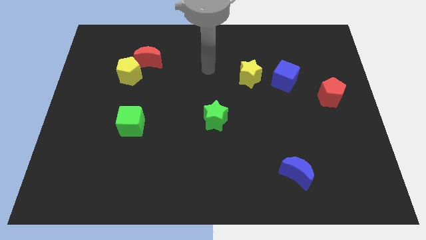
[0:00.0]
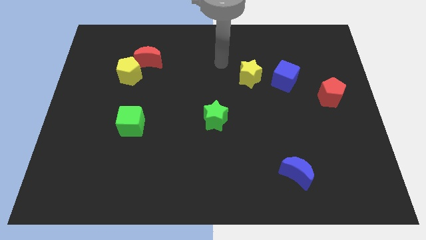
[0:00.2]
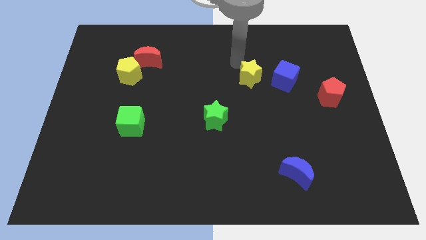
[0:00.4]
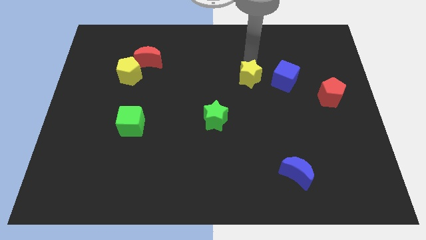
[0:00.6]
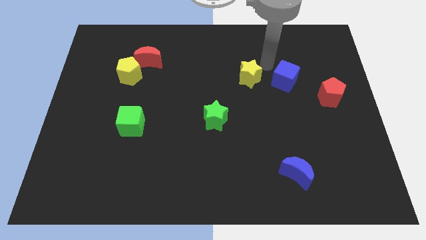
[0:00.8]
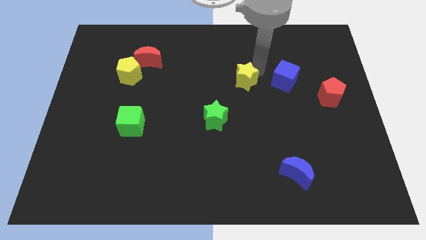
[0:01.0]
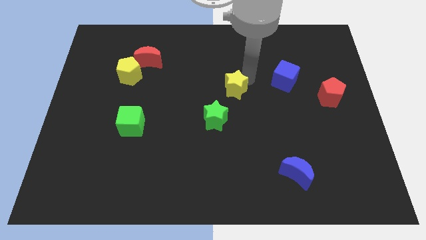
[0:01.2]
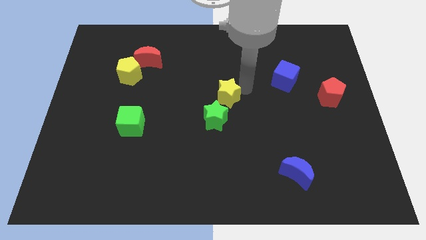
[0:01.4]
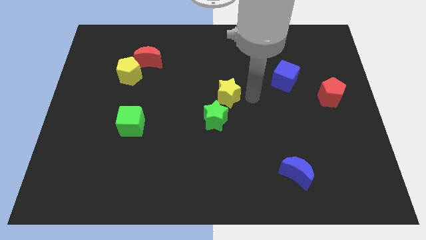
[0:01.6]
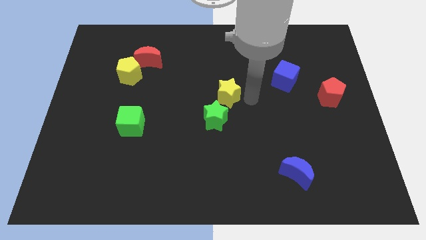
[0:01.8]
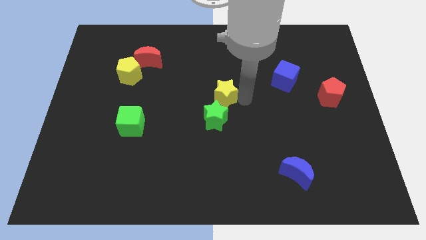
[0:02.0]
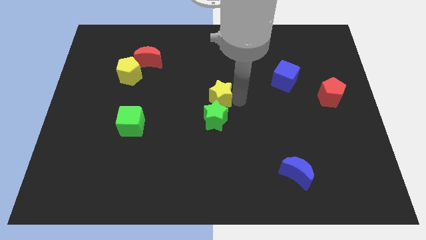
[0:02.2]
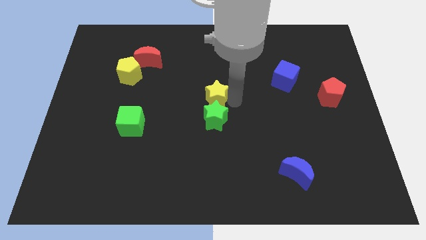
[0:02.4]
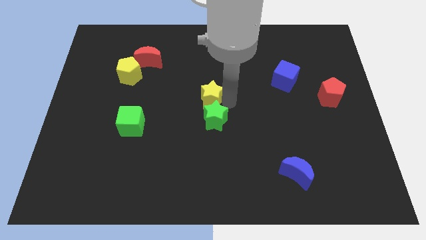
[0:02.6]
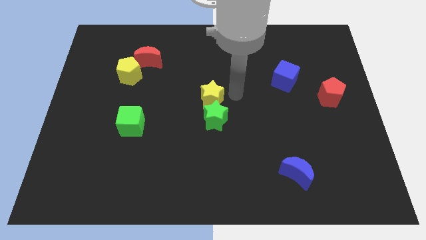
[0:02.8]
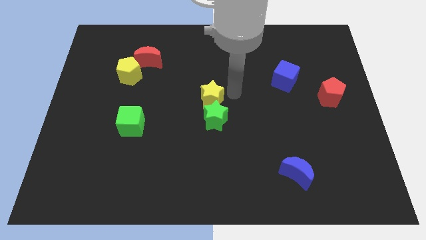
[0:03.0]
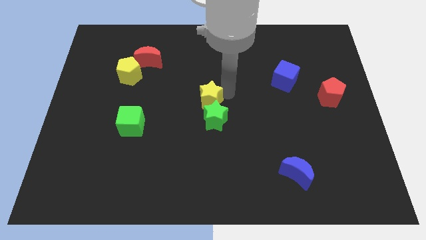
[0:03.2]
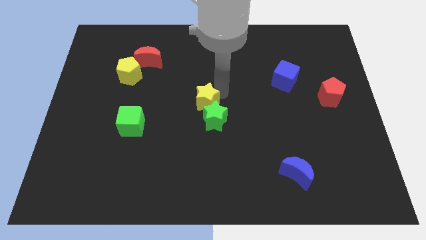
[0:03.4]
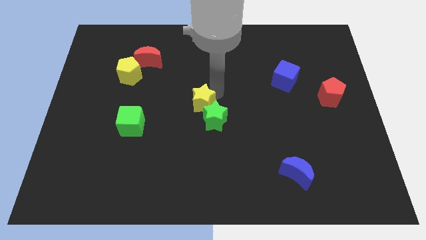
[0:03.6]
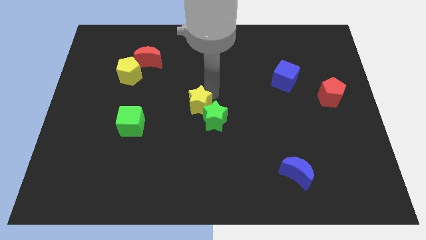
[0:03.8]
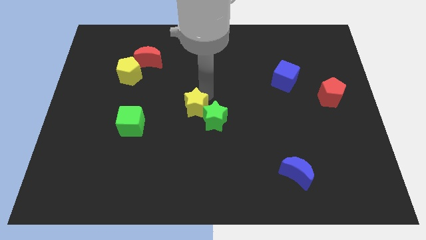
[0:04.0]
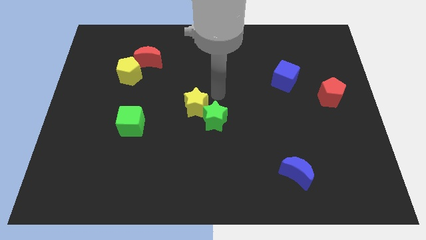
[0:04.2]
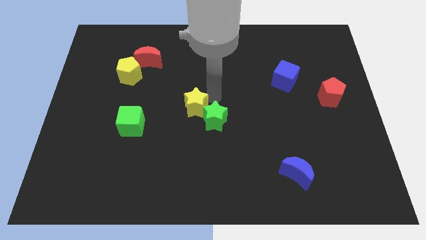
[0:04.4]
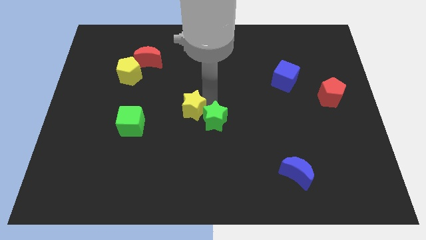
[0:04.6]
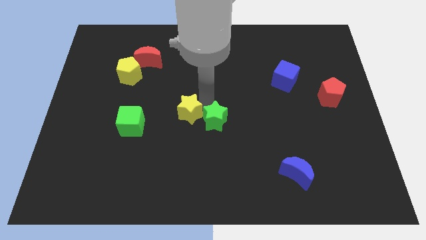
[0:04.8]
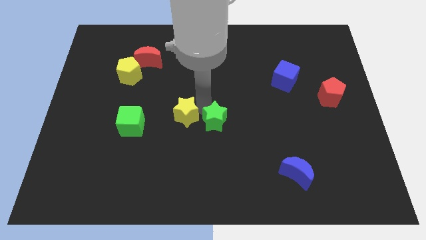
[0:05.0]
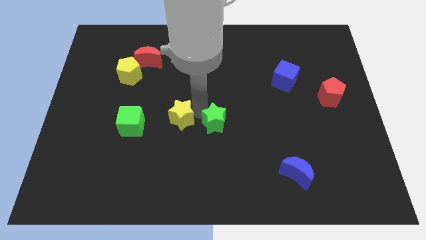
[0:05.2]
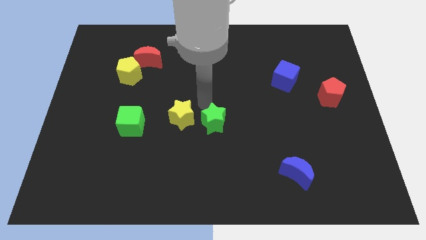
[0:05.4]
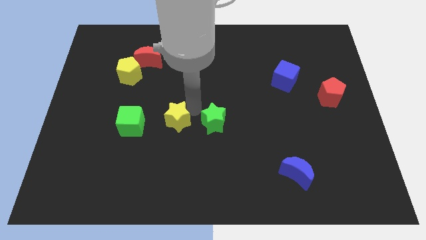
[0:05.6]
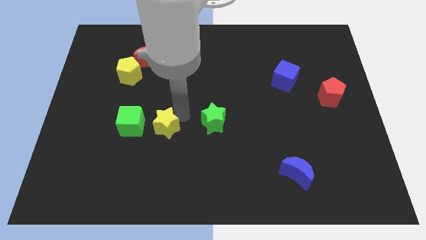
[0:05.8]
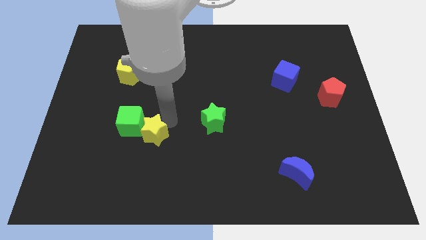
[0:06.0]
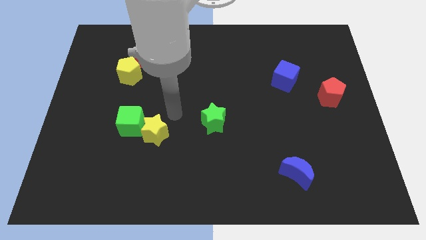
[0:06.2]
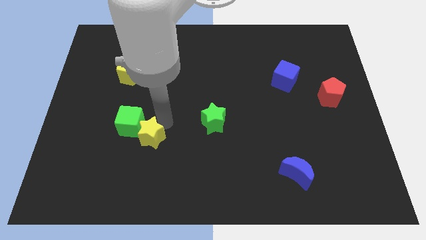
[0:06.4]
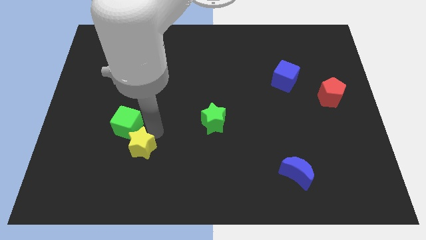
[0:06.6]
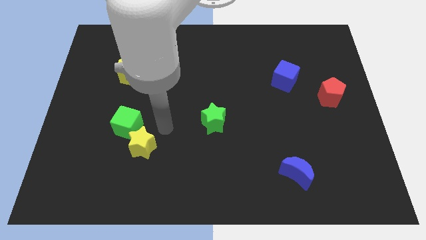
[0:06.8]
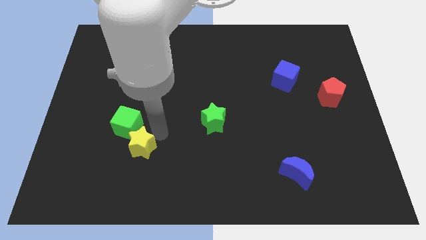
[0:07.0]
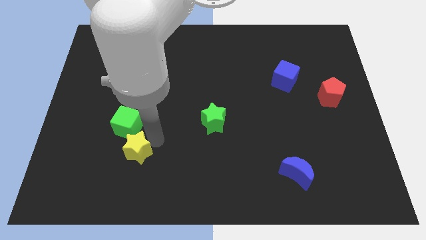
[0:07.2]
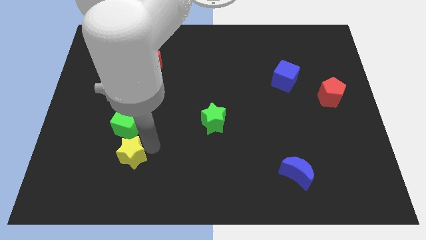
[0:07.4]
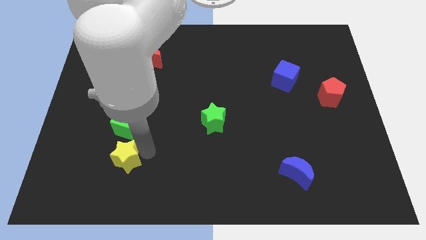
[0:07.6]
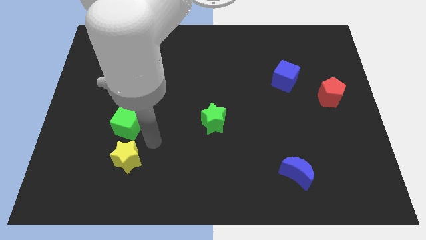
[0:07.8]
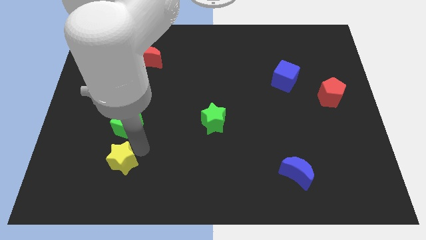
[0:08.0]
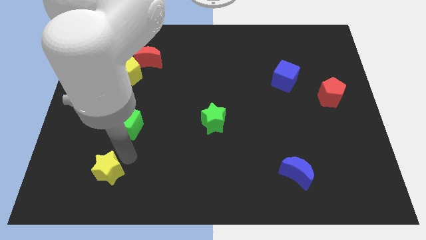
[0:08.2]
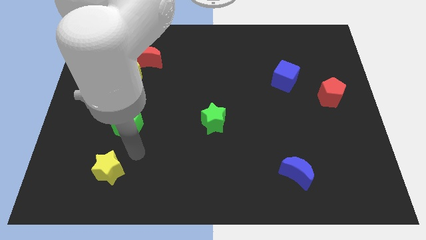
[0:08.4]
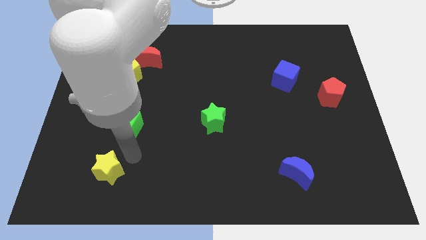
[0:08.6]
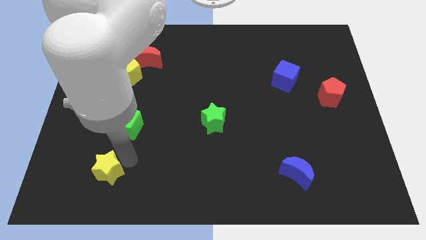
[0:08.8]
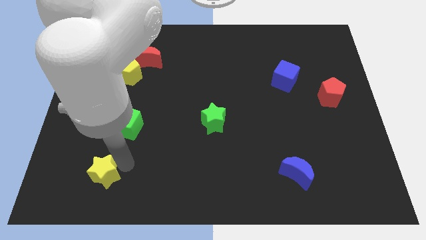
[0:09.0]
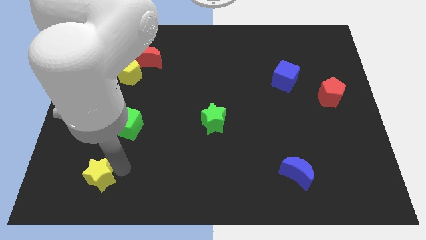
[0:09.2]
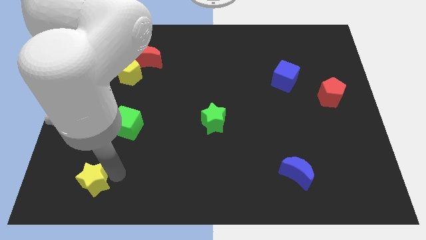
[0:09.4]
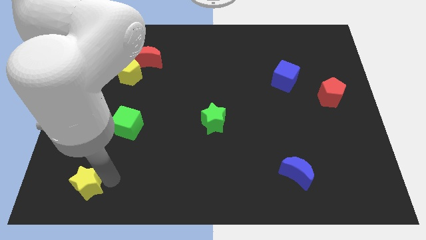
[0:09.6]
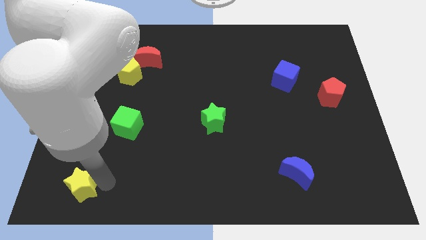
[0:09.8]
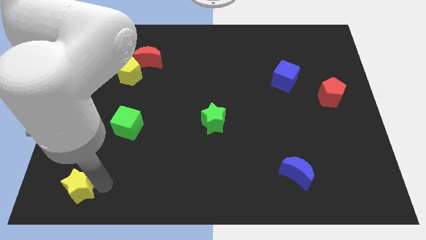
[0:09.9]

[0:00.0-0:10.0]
move the yellow star to the bottom left corner

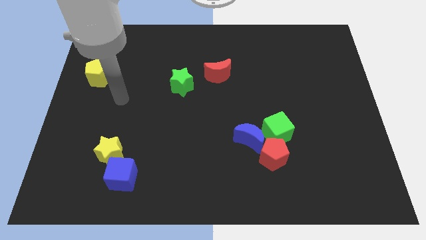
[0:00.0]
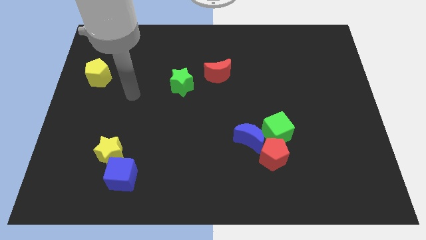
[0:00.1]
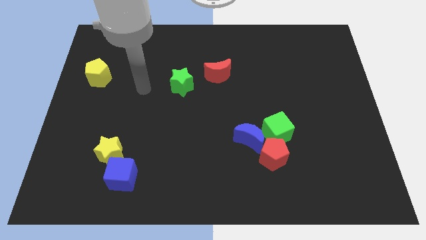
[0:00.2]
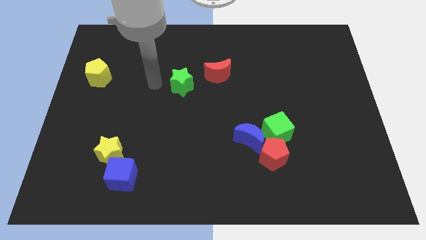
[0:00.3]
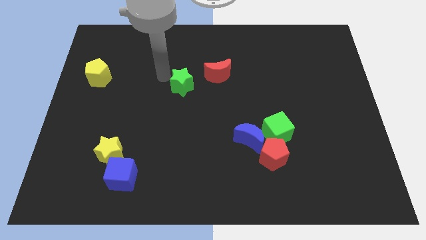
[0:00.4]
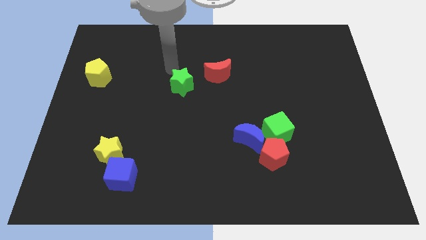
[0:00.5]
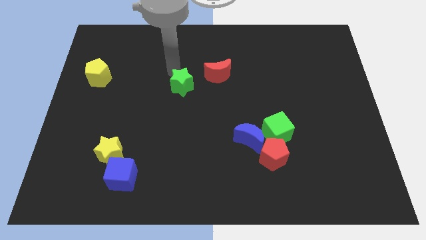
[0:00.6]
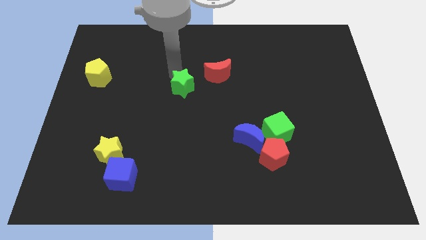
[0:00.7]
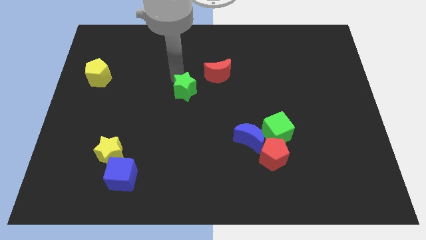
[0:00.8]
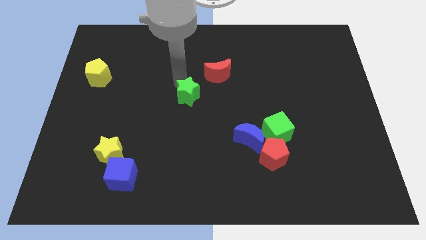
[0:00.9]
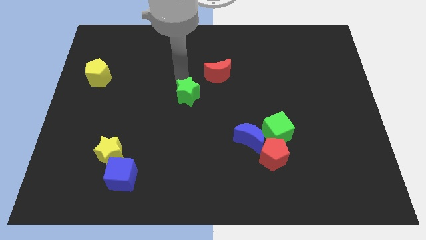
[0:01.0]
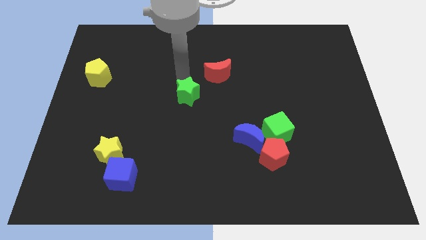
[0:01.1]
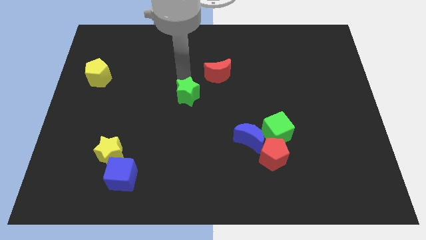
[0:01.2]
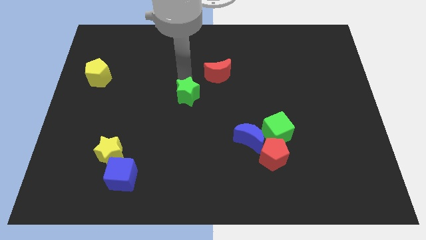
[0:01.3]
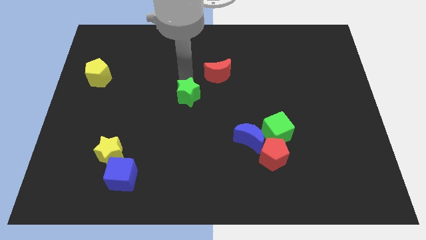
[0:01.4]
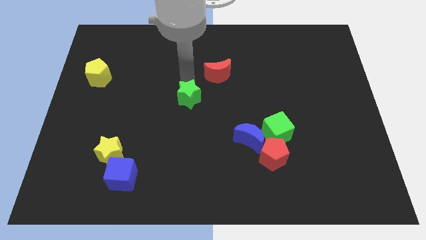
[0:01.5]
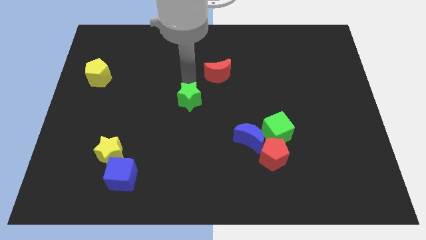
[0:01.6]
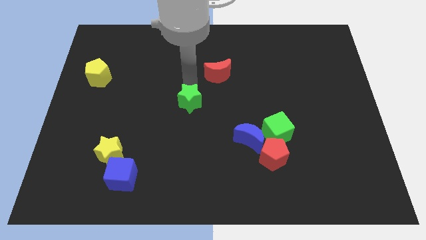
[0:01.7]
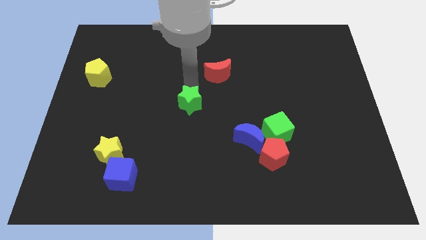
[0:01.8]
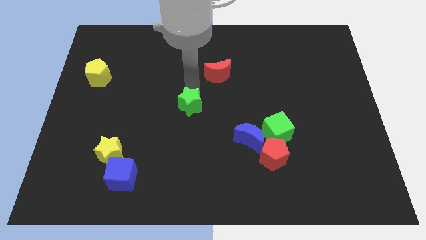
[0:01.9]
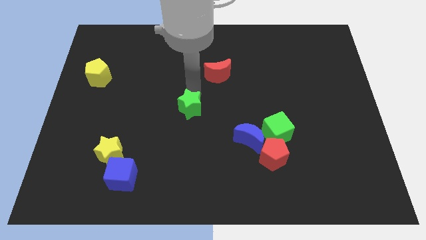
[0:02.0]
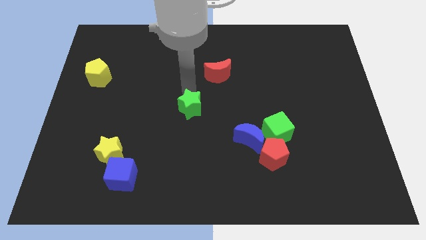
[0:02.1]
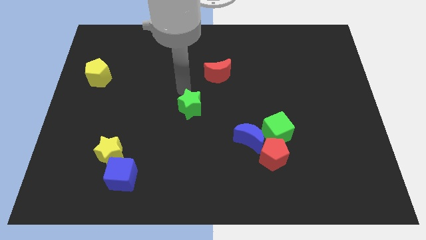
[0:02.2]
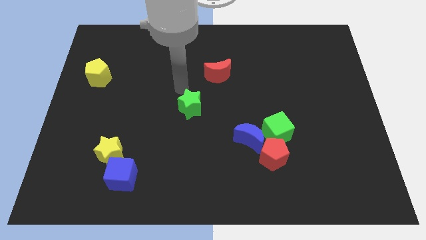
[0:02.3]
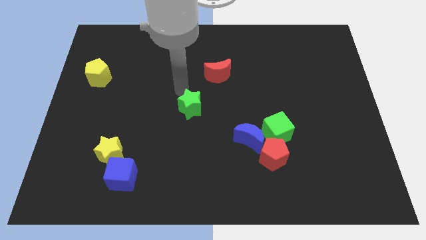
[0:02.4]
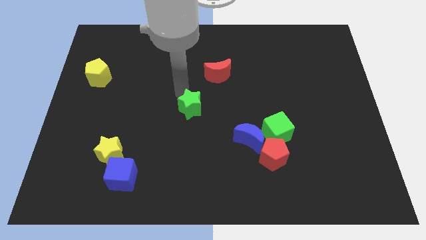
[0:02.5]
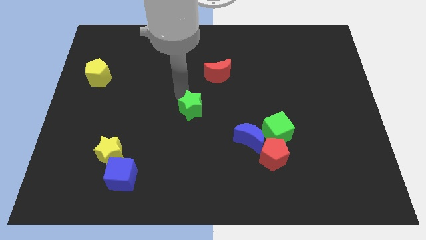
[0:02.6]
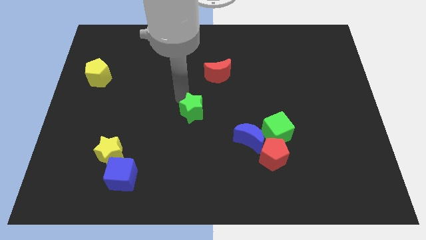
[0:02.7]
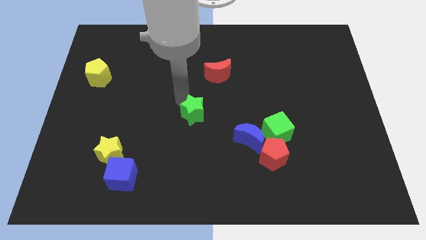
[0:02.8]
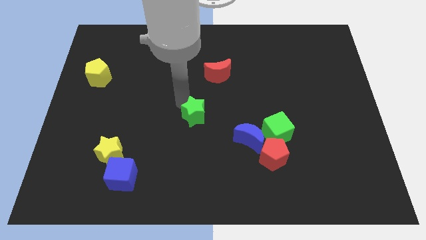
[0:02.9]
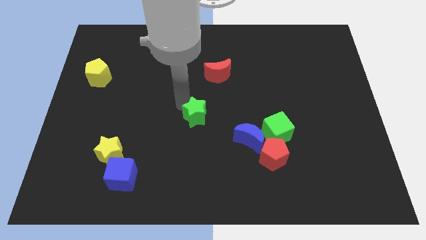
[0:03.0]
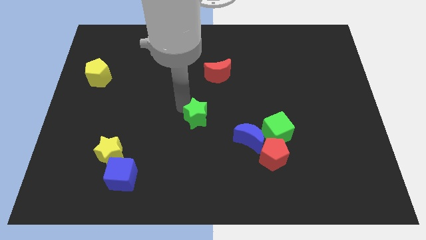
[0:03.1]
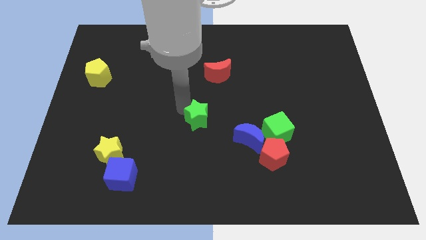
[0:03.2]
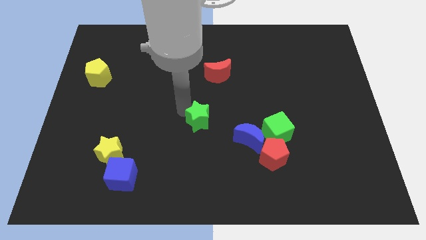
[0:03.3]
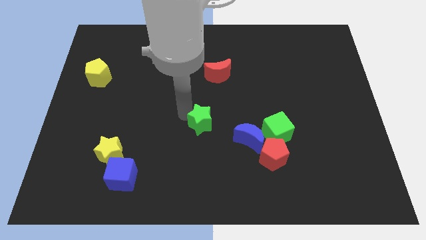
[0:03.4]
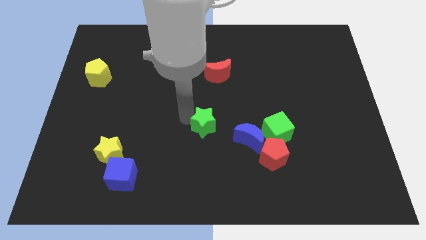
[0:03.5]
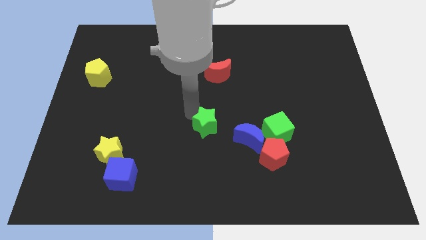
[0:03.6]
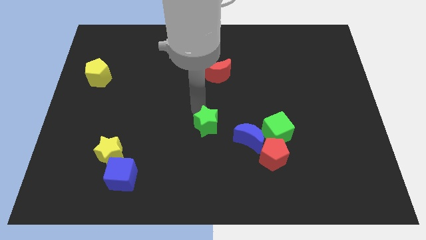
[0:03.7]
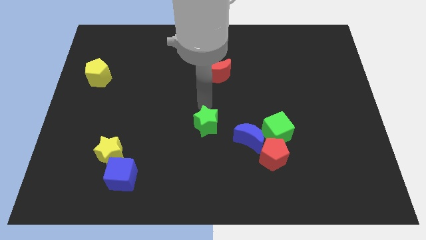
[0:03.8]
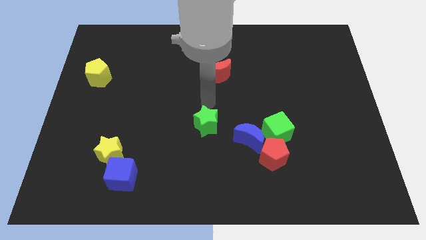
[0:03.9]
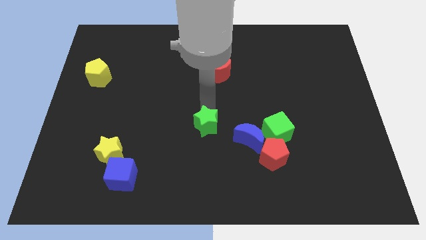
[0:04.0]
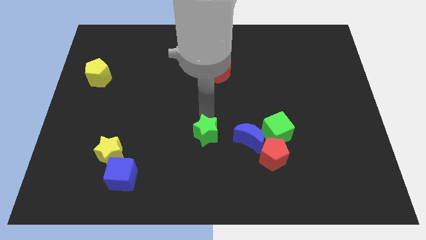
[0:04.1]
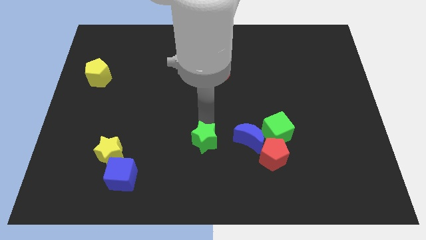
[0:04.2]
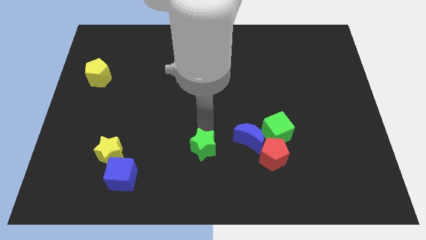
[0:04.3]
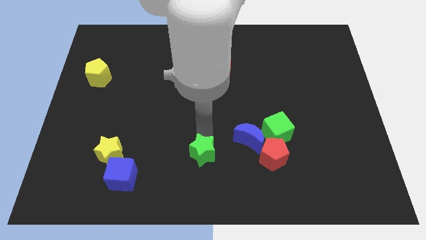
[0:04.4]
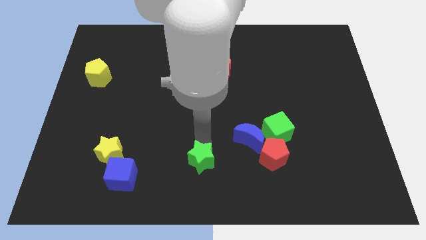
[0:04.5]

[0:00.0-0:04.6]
move the green star to the bottom side
